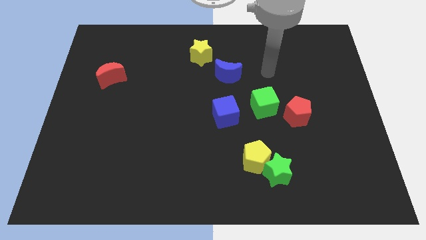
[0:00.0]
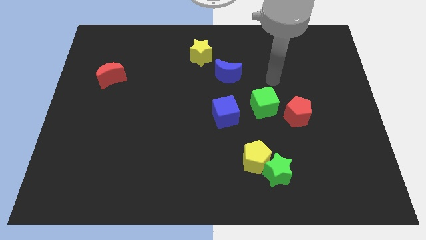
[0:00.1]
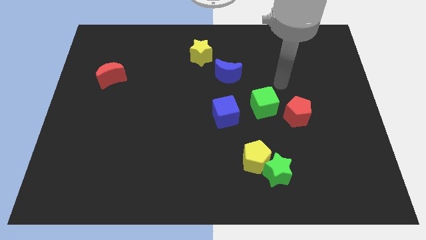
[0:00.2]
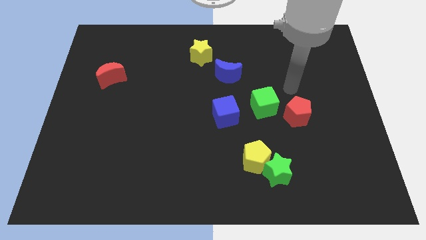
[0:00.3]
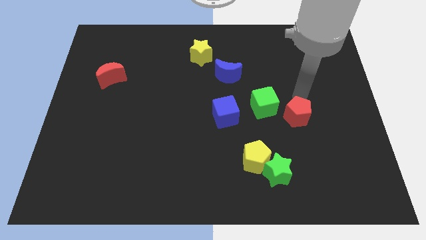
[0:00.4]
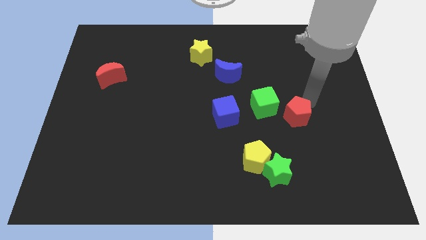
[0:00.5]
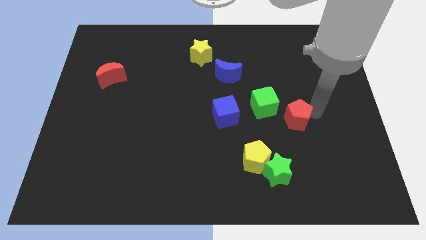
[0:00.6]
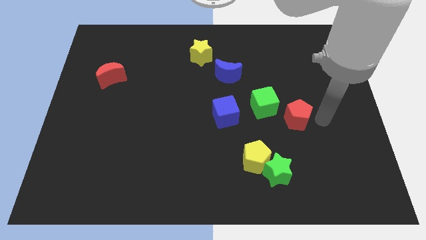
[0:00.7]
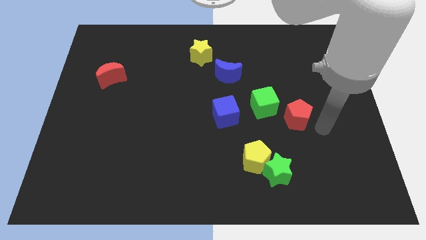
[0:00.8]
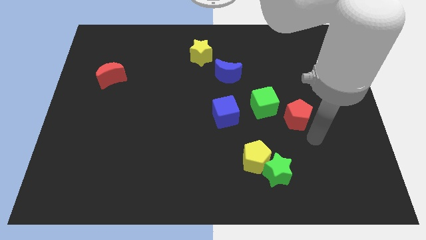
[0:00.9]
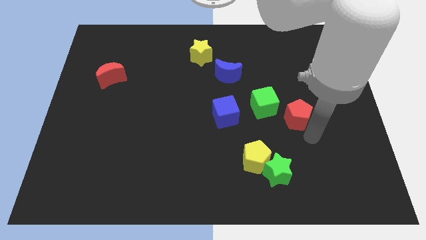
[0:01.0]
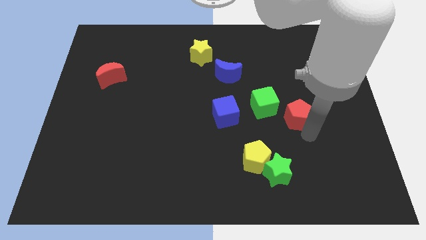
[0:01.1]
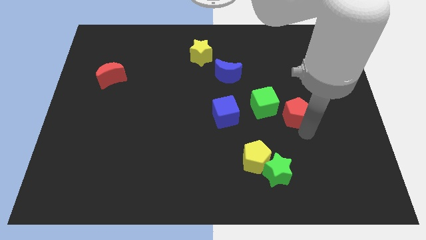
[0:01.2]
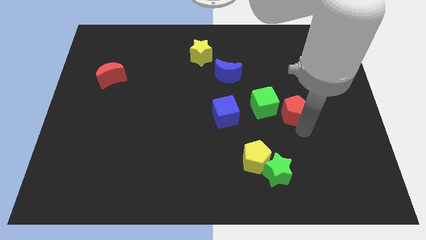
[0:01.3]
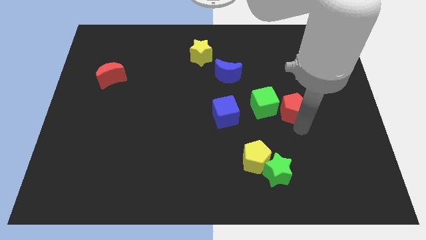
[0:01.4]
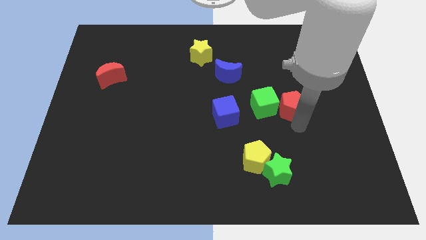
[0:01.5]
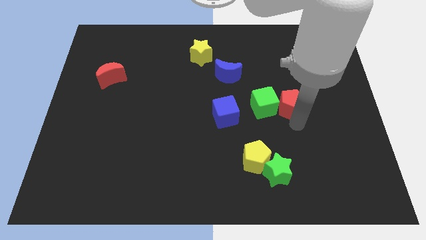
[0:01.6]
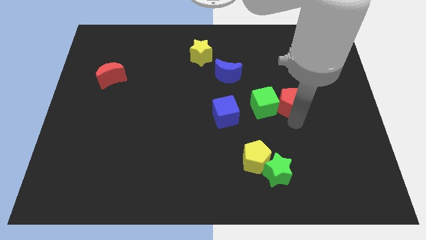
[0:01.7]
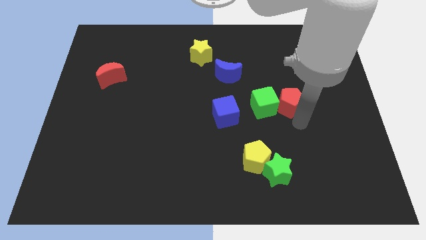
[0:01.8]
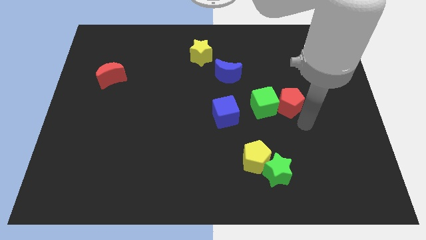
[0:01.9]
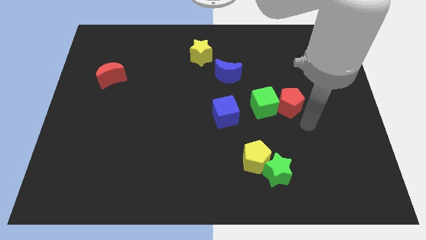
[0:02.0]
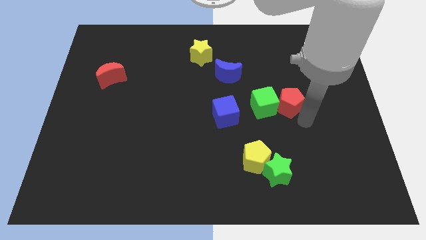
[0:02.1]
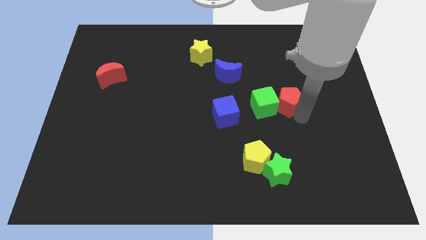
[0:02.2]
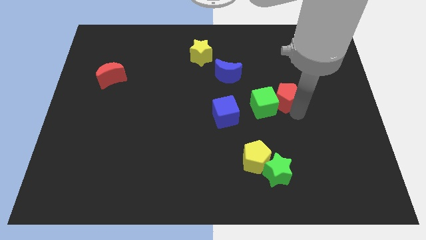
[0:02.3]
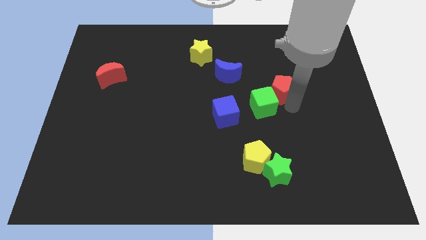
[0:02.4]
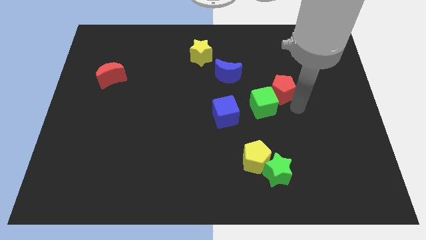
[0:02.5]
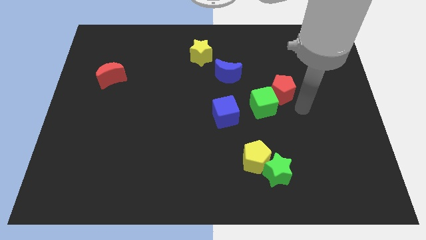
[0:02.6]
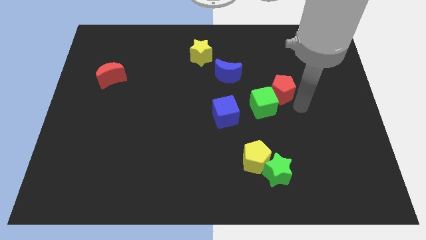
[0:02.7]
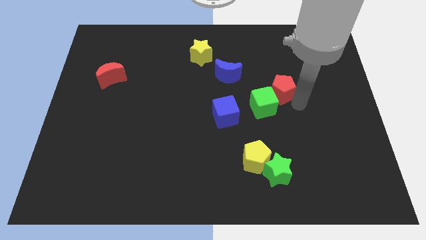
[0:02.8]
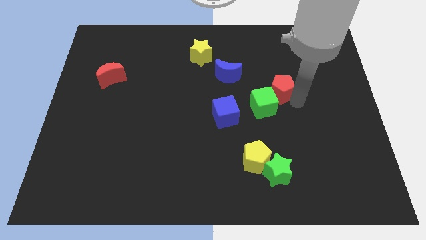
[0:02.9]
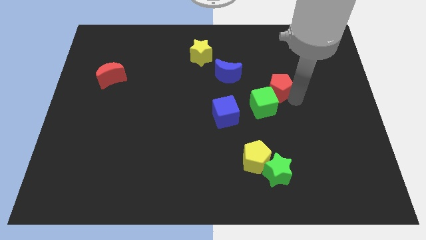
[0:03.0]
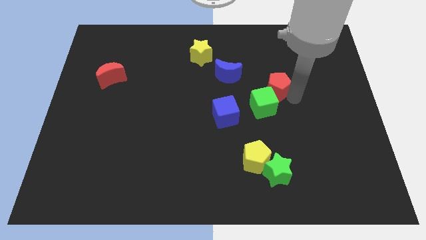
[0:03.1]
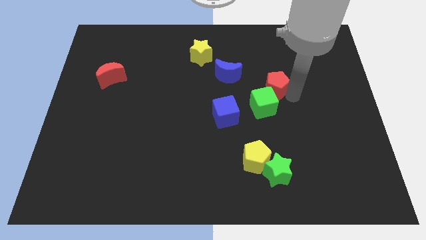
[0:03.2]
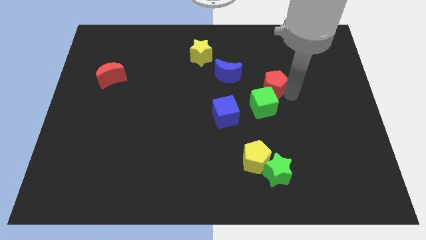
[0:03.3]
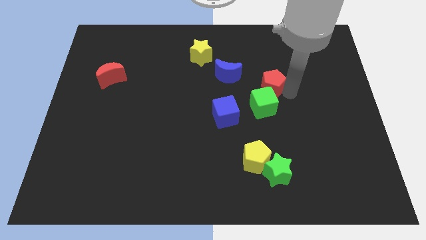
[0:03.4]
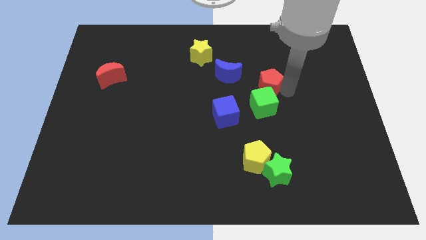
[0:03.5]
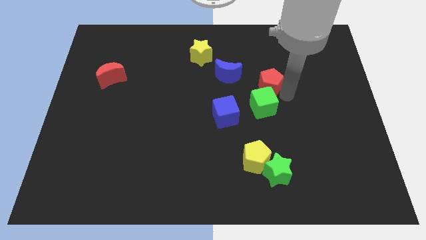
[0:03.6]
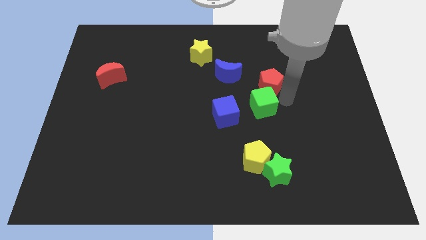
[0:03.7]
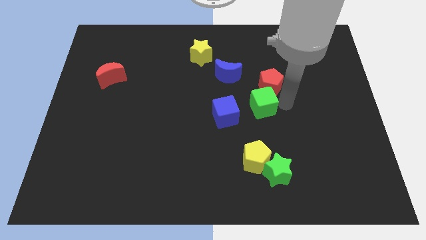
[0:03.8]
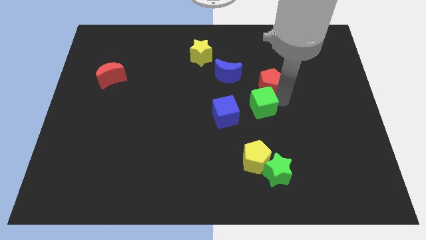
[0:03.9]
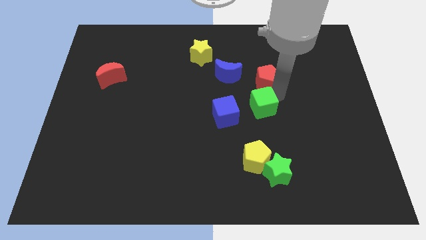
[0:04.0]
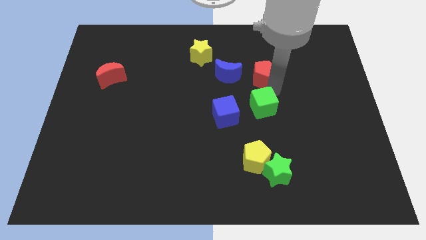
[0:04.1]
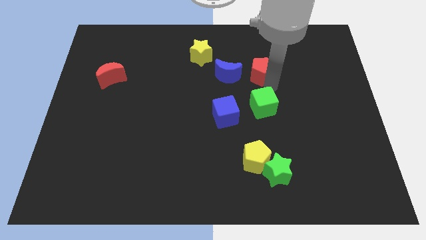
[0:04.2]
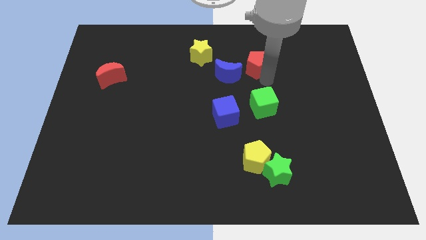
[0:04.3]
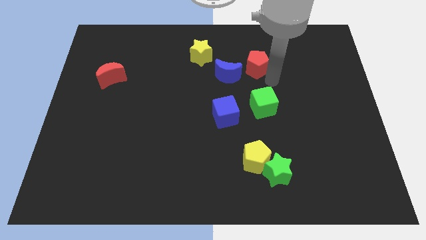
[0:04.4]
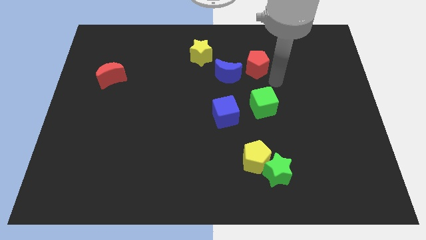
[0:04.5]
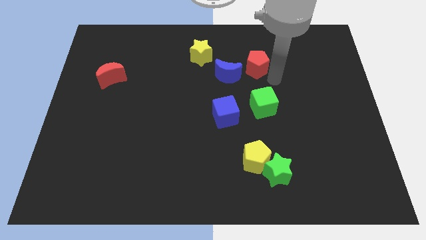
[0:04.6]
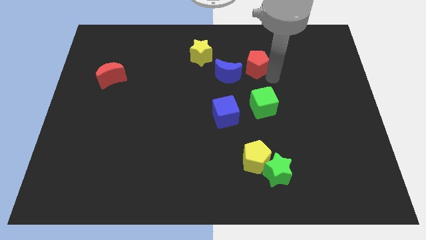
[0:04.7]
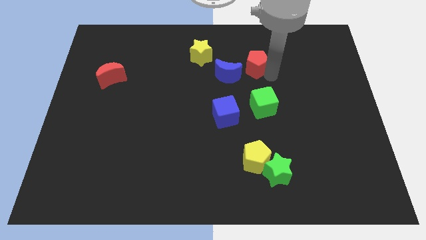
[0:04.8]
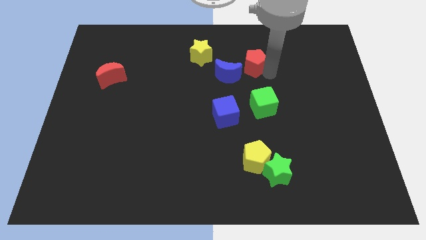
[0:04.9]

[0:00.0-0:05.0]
move the red pentagon to the right side of the yellow star

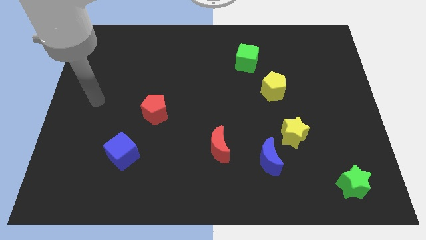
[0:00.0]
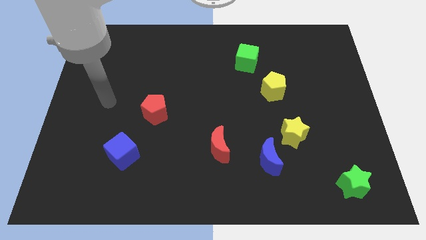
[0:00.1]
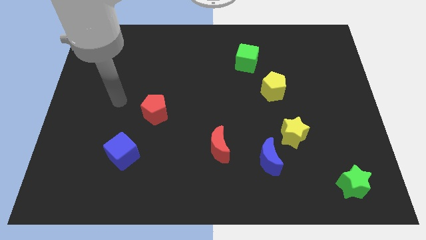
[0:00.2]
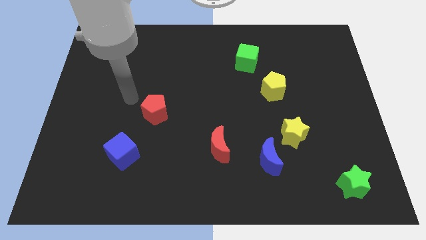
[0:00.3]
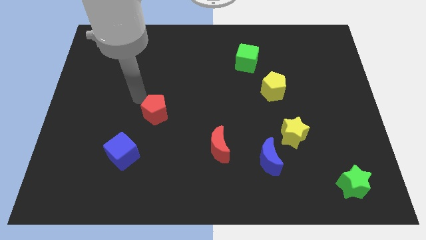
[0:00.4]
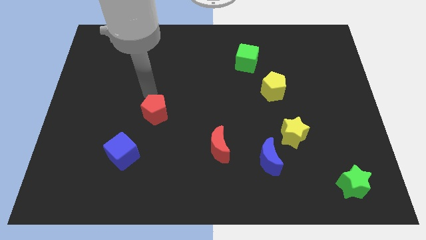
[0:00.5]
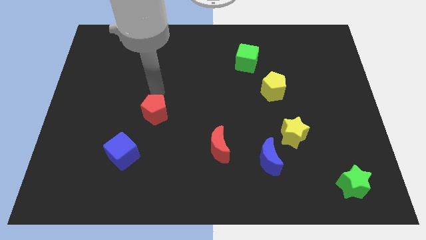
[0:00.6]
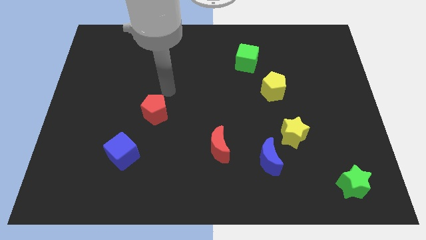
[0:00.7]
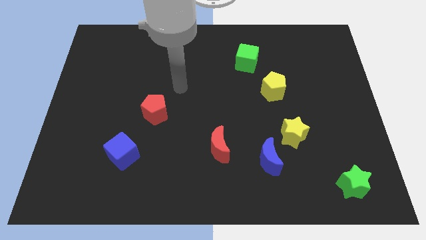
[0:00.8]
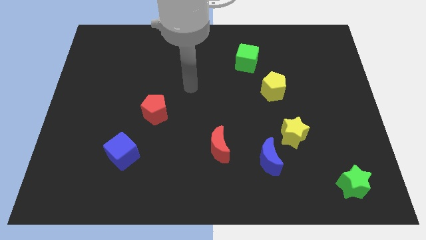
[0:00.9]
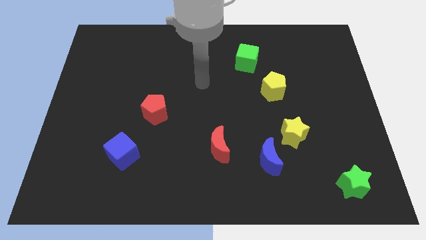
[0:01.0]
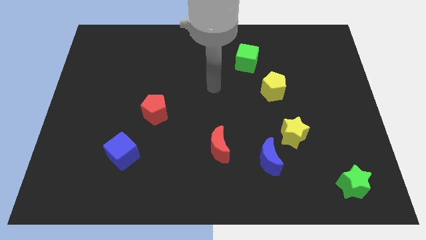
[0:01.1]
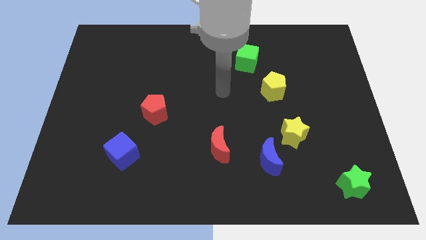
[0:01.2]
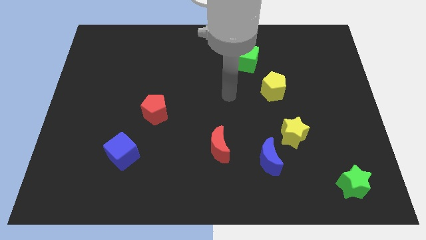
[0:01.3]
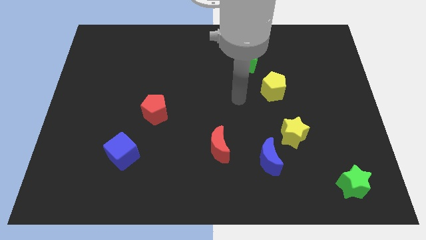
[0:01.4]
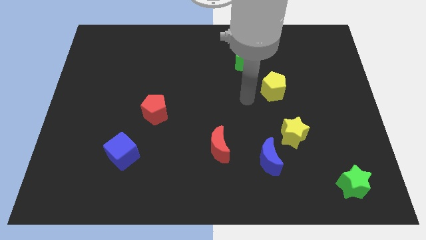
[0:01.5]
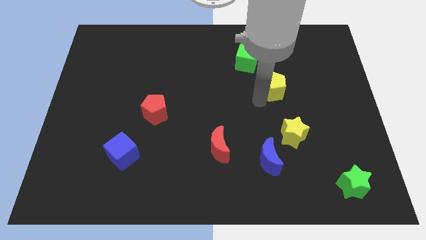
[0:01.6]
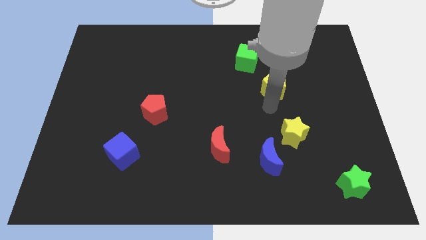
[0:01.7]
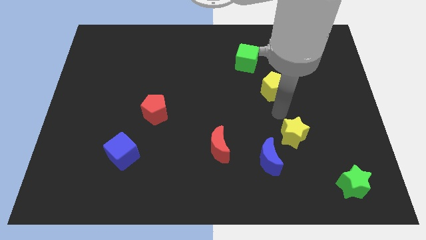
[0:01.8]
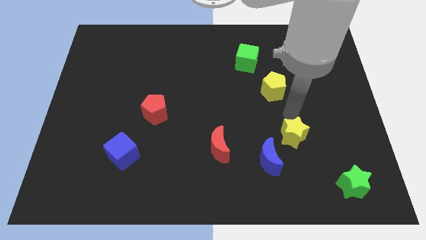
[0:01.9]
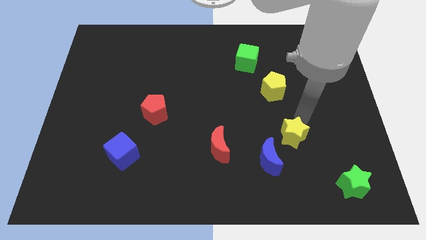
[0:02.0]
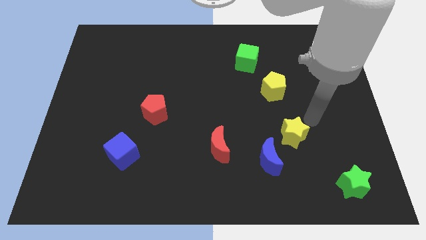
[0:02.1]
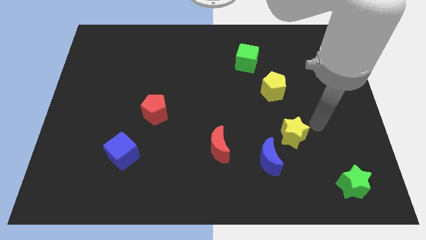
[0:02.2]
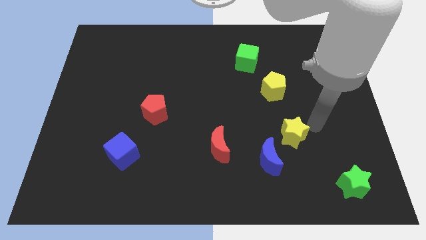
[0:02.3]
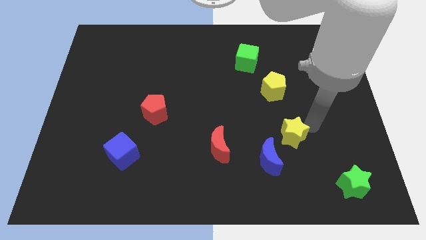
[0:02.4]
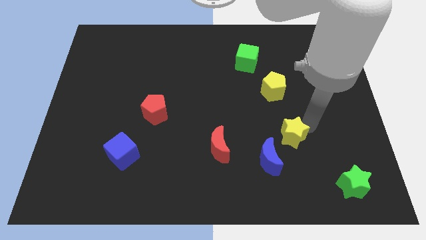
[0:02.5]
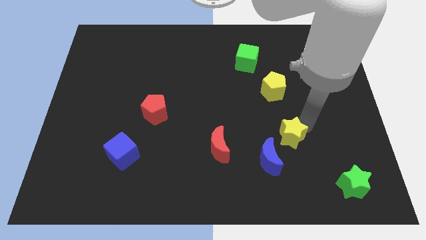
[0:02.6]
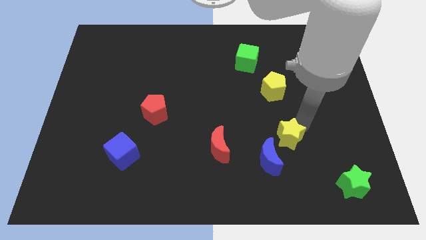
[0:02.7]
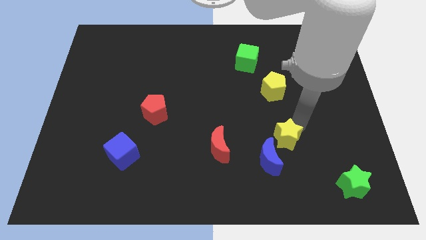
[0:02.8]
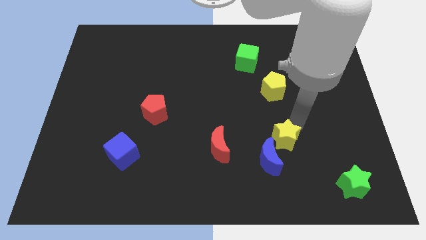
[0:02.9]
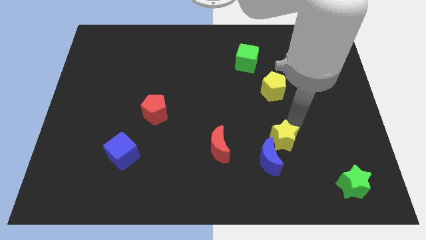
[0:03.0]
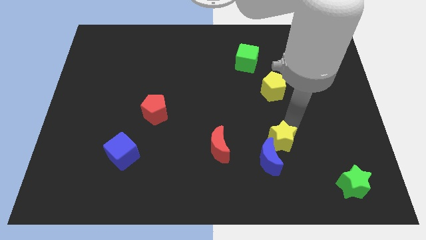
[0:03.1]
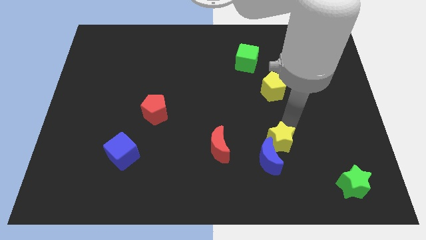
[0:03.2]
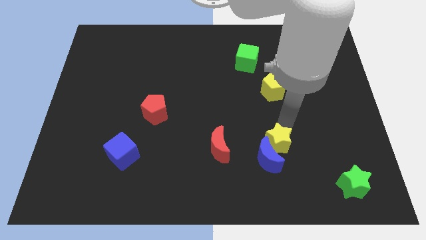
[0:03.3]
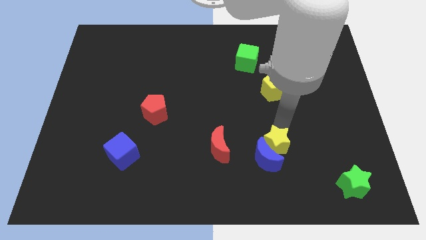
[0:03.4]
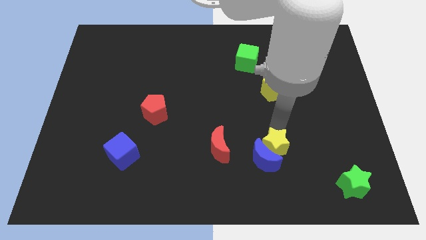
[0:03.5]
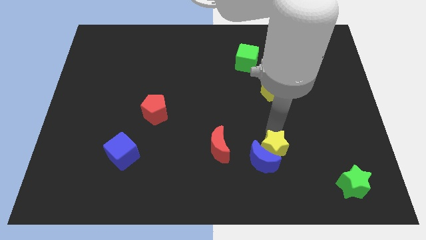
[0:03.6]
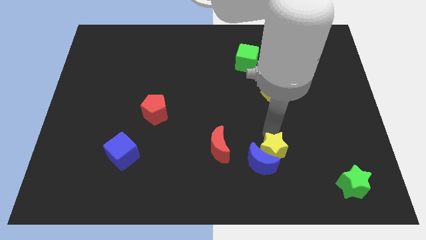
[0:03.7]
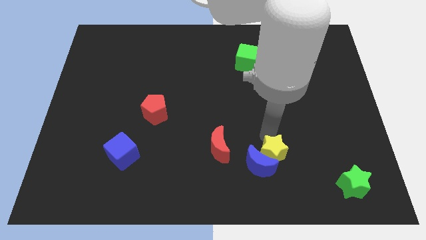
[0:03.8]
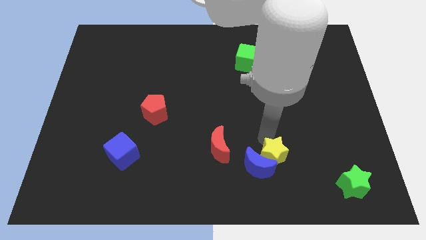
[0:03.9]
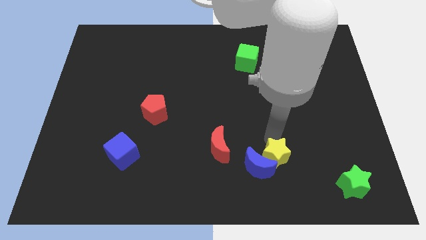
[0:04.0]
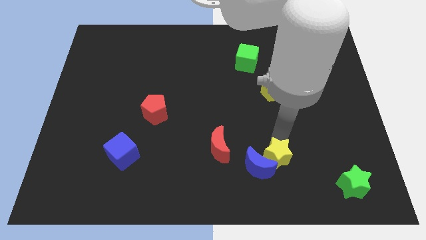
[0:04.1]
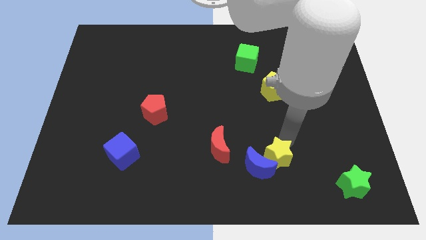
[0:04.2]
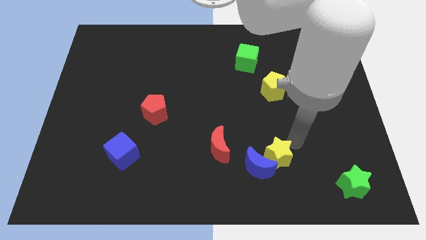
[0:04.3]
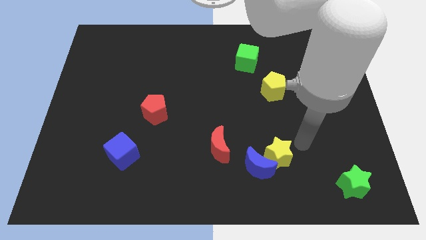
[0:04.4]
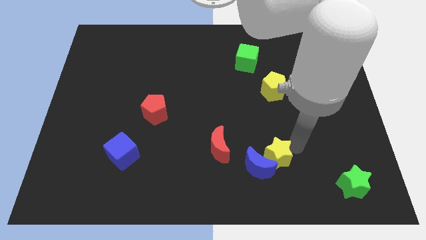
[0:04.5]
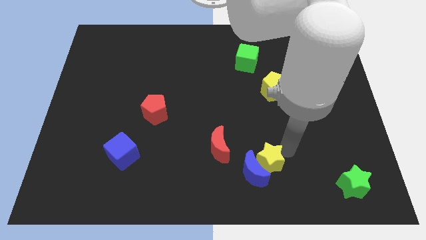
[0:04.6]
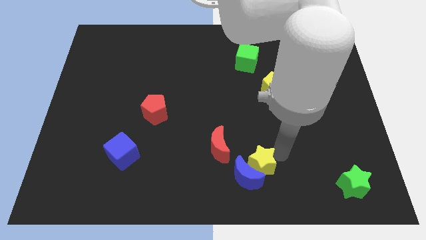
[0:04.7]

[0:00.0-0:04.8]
move the yellow star to the bottom right of the red moon
